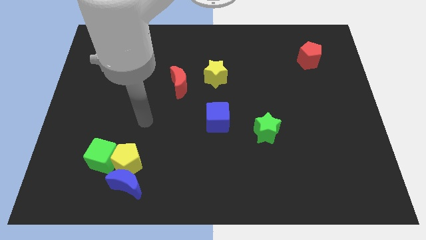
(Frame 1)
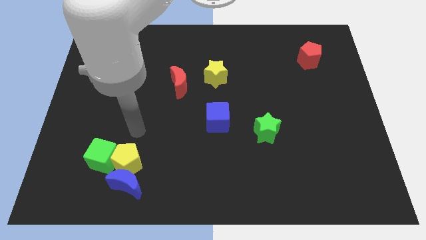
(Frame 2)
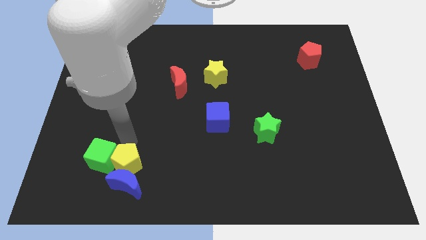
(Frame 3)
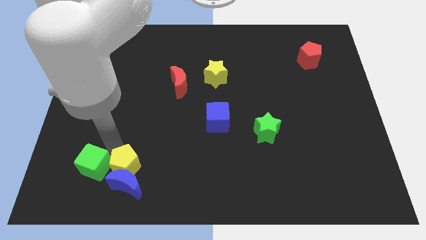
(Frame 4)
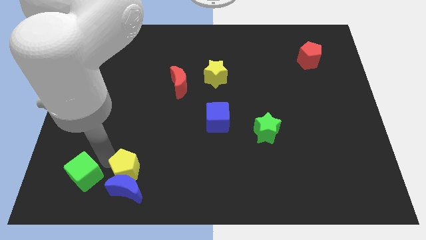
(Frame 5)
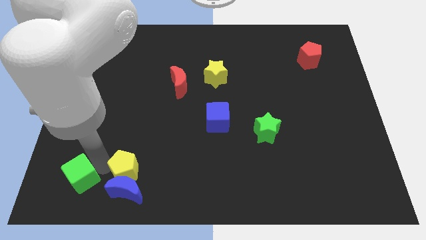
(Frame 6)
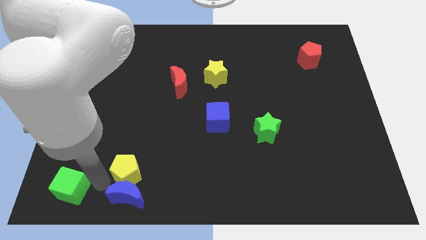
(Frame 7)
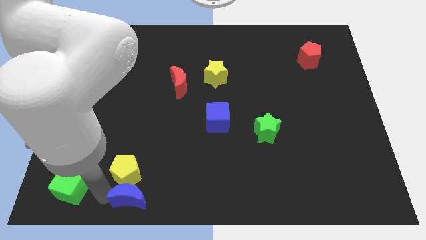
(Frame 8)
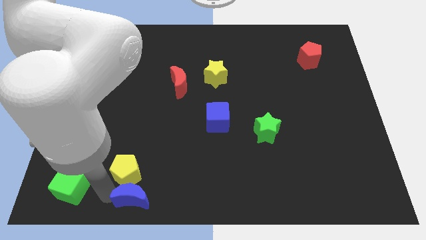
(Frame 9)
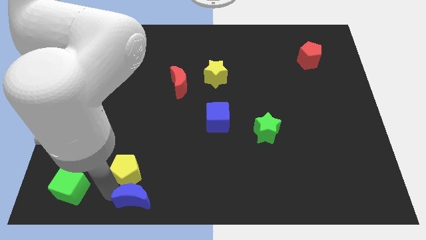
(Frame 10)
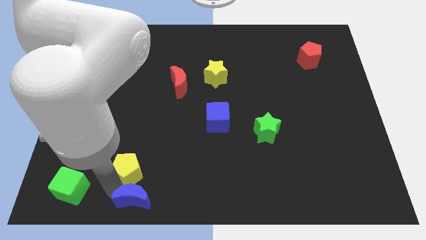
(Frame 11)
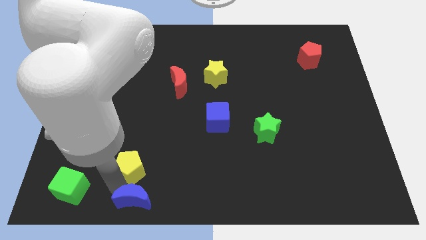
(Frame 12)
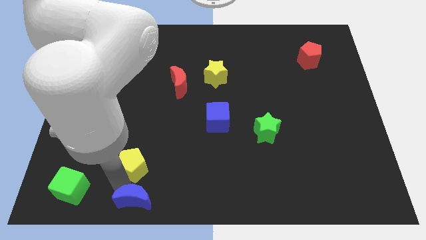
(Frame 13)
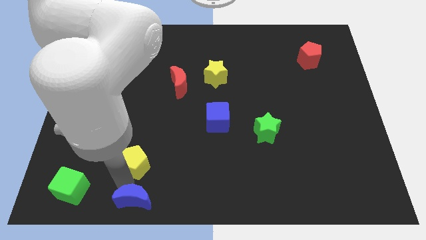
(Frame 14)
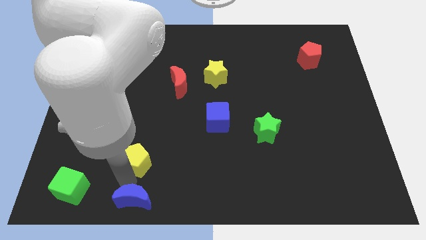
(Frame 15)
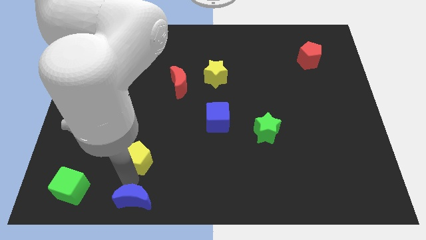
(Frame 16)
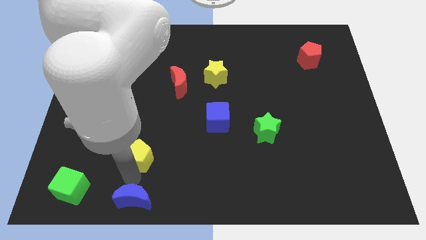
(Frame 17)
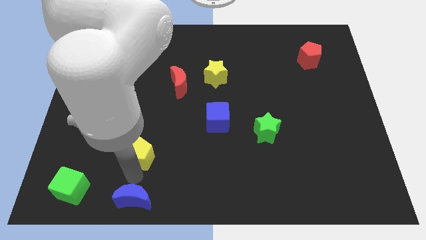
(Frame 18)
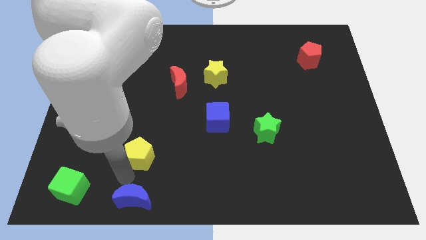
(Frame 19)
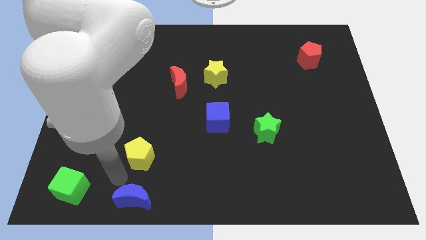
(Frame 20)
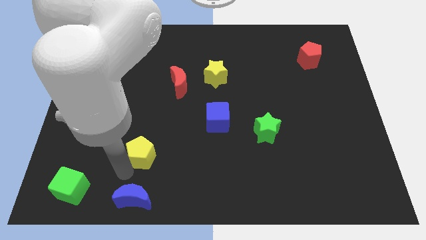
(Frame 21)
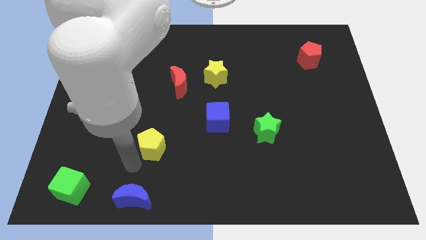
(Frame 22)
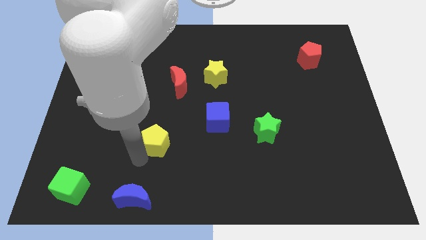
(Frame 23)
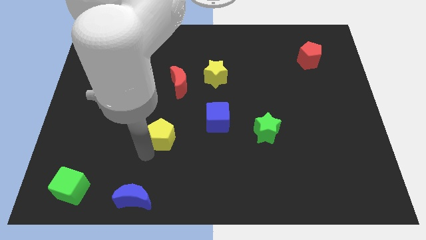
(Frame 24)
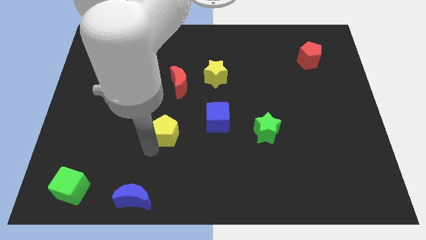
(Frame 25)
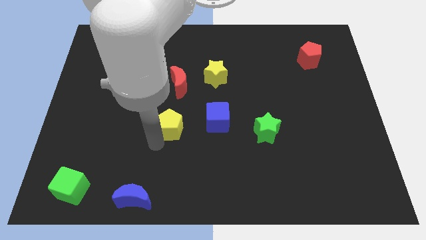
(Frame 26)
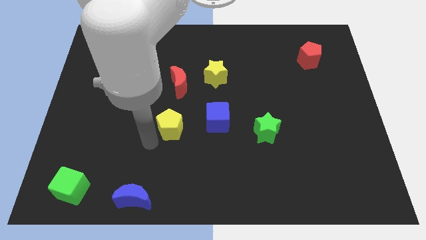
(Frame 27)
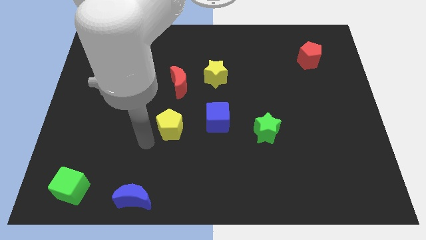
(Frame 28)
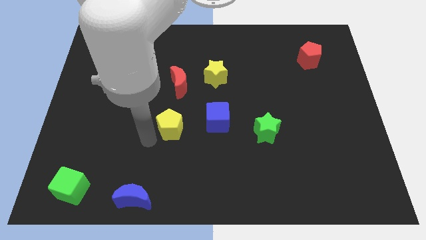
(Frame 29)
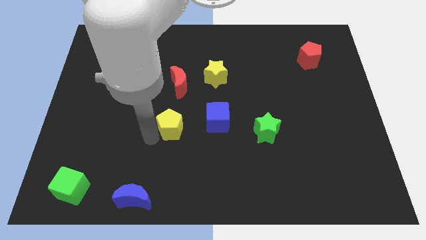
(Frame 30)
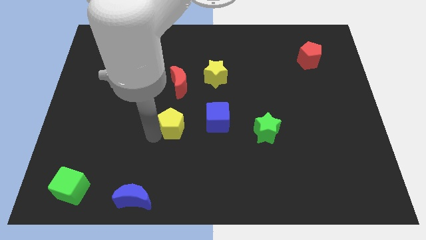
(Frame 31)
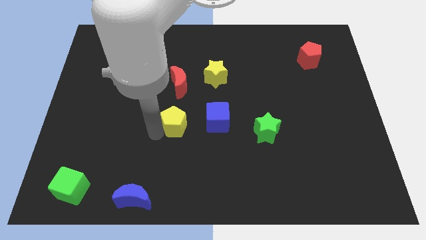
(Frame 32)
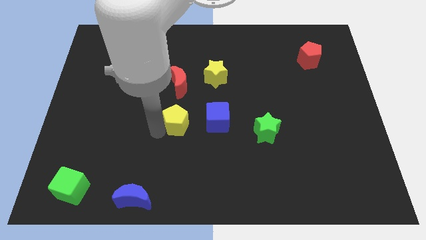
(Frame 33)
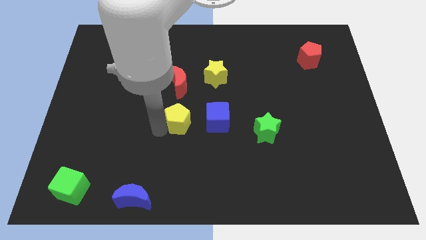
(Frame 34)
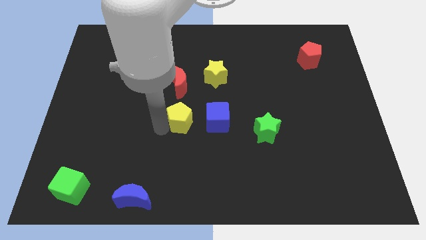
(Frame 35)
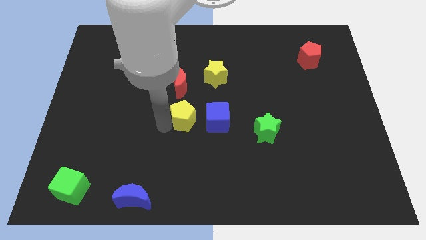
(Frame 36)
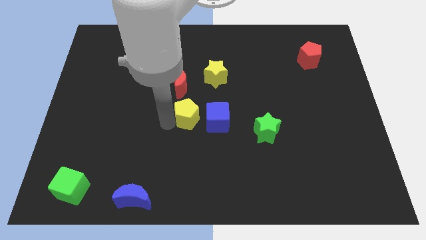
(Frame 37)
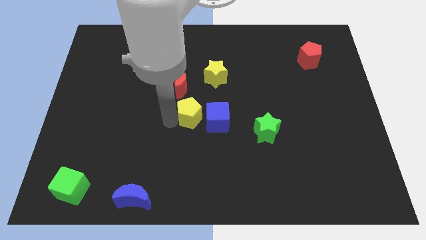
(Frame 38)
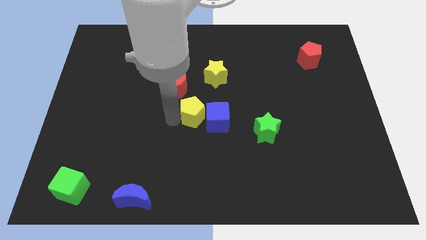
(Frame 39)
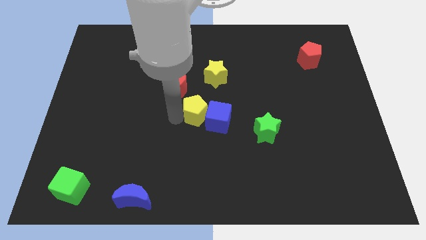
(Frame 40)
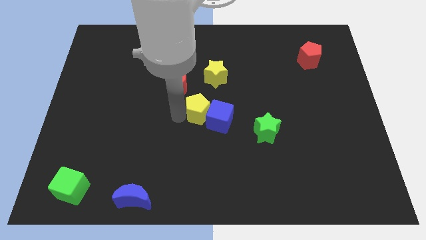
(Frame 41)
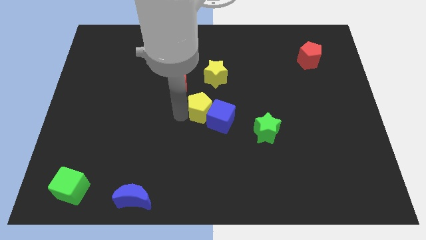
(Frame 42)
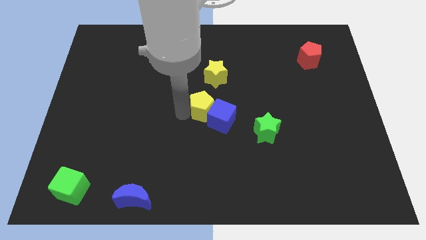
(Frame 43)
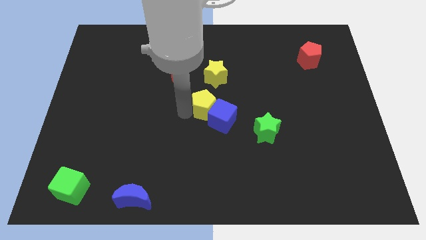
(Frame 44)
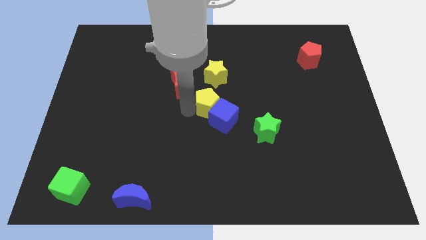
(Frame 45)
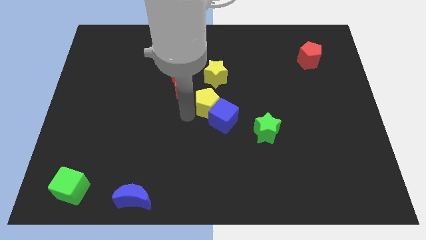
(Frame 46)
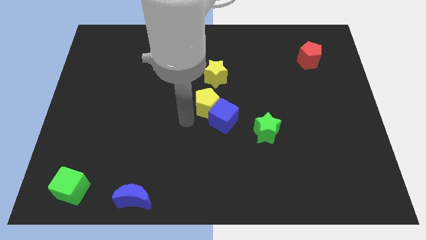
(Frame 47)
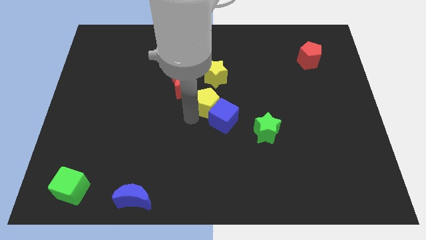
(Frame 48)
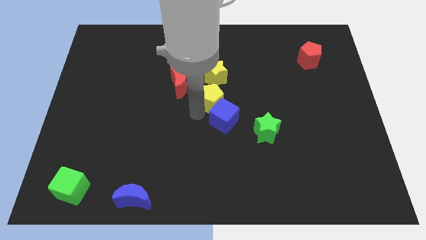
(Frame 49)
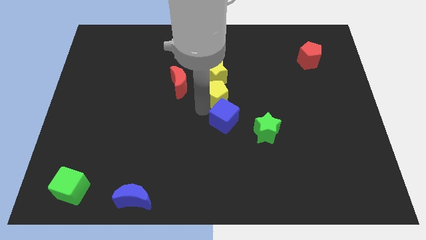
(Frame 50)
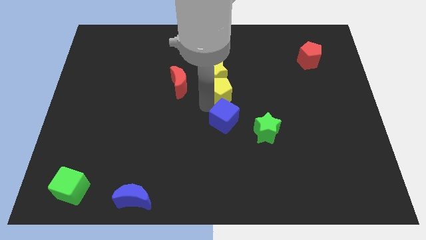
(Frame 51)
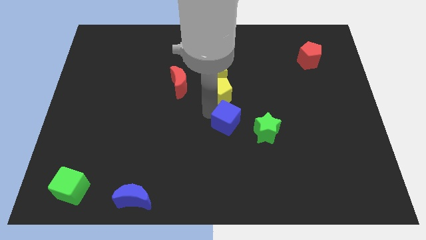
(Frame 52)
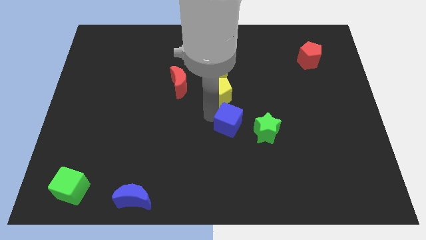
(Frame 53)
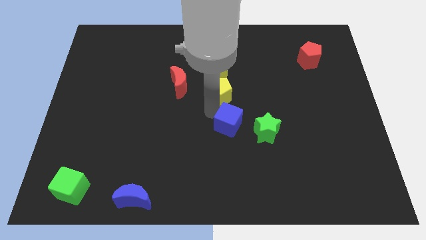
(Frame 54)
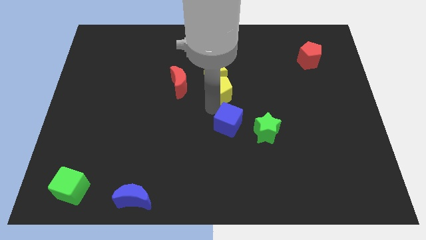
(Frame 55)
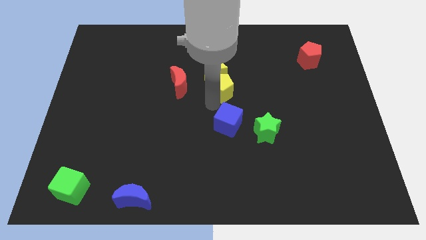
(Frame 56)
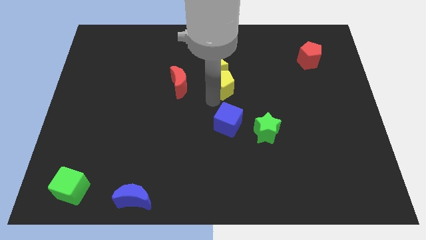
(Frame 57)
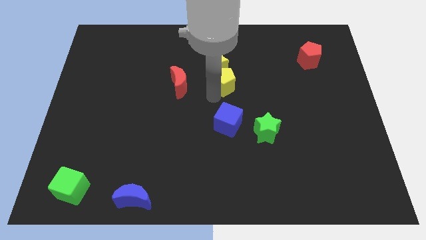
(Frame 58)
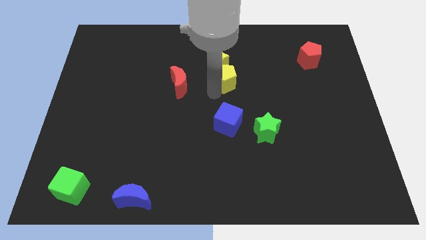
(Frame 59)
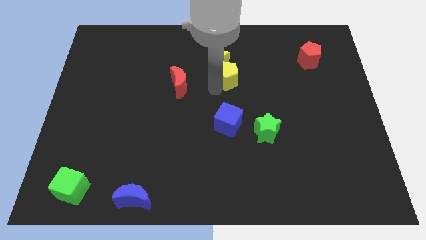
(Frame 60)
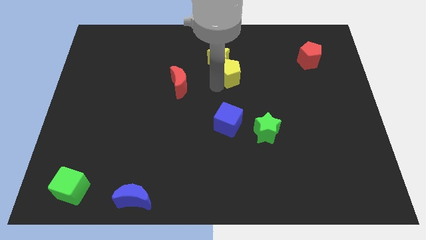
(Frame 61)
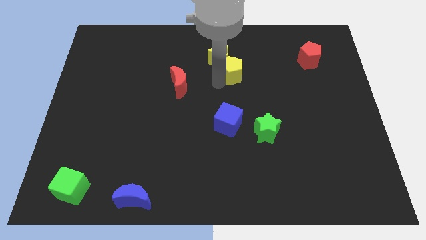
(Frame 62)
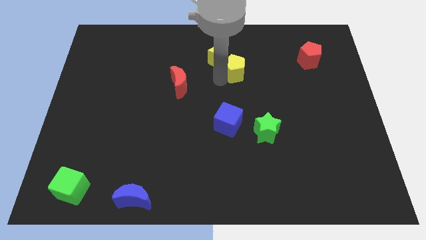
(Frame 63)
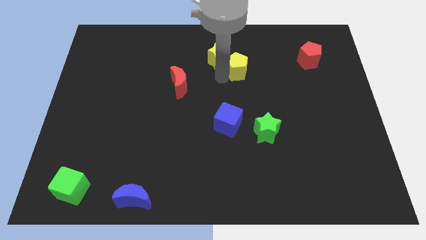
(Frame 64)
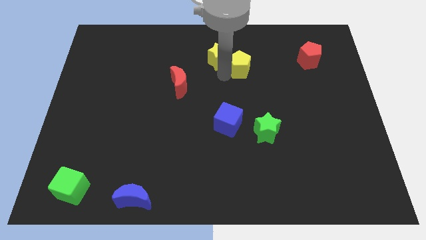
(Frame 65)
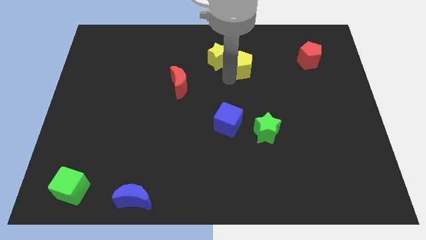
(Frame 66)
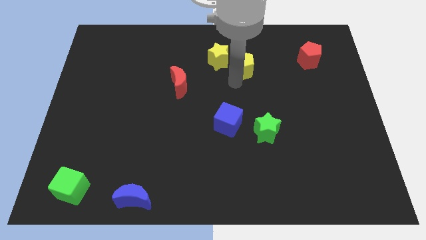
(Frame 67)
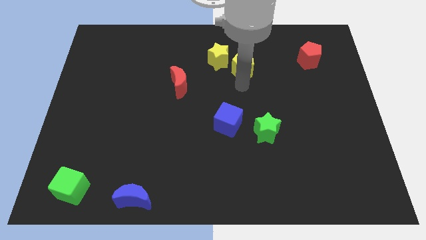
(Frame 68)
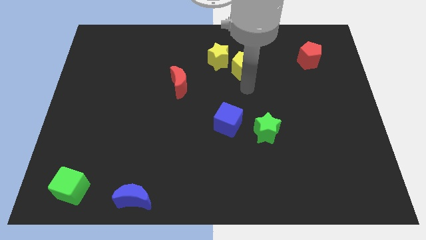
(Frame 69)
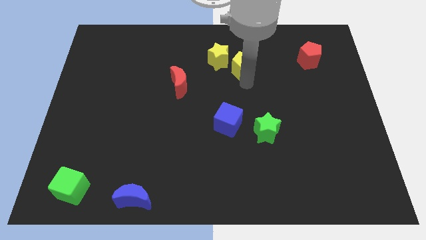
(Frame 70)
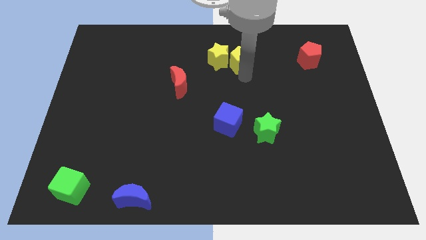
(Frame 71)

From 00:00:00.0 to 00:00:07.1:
put the yellow pentagon to the top right of the yellow star
